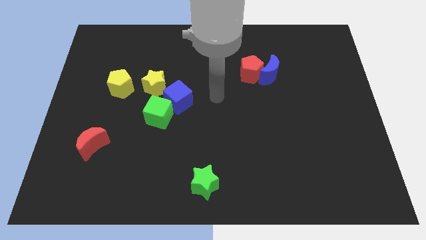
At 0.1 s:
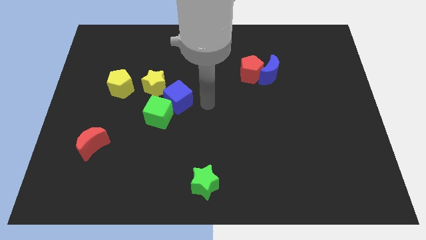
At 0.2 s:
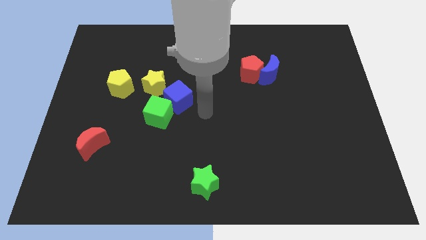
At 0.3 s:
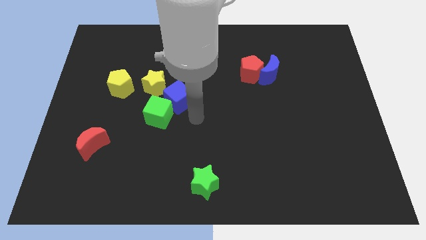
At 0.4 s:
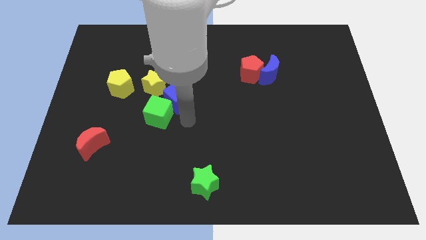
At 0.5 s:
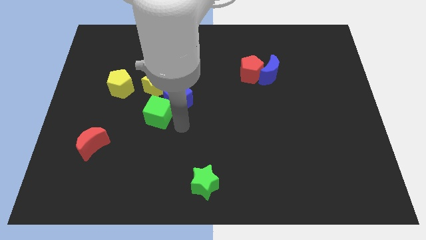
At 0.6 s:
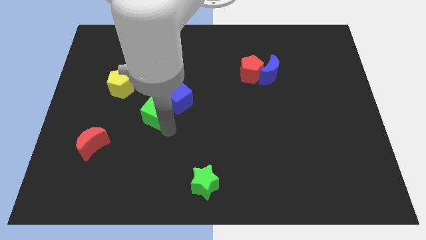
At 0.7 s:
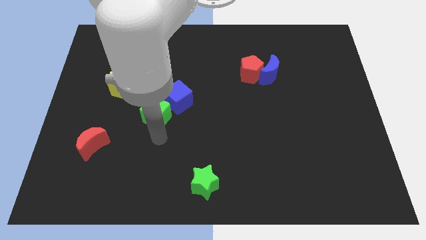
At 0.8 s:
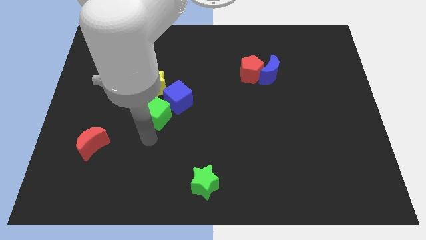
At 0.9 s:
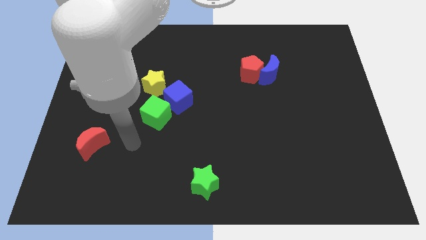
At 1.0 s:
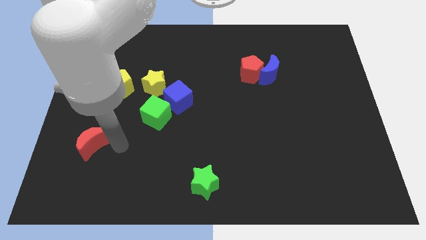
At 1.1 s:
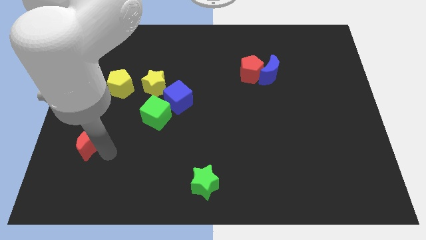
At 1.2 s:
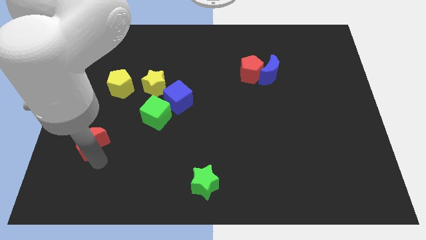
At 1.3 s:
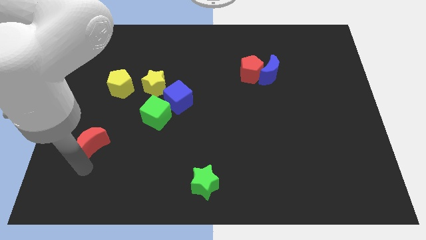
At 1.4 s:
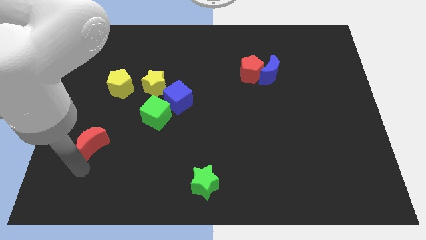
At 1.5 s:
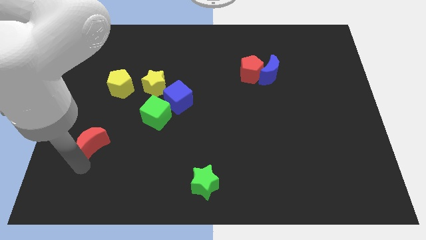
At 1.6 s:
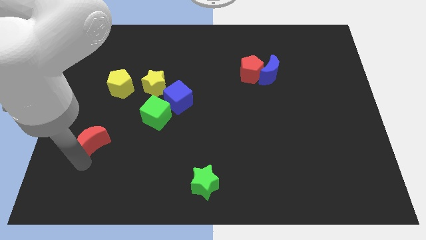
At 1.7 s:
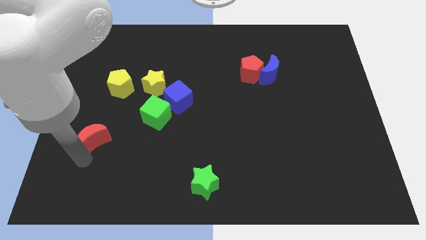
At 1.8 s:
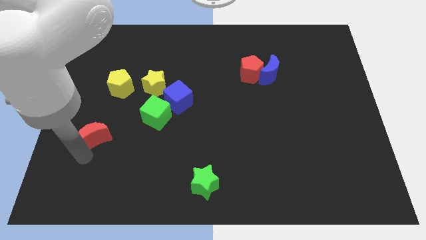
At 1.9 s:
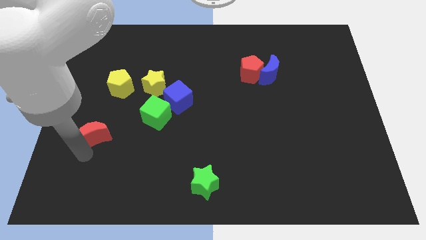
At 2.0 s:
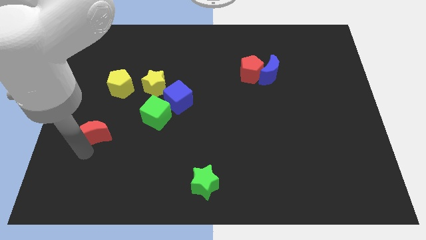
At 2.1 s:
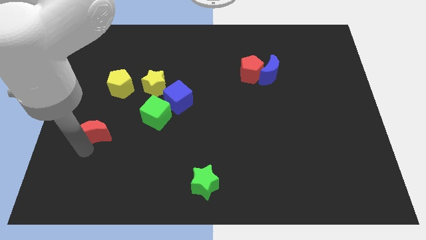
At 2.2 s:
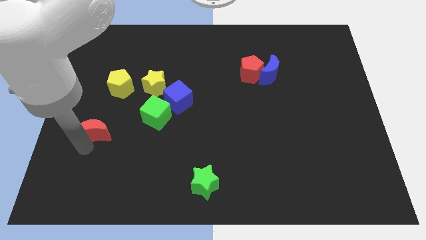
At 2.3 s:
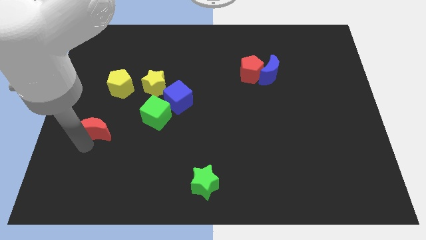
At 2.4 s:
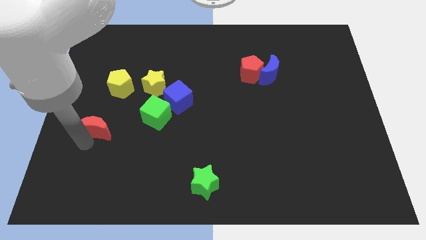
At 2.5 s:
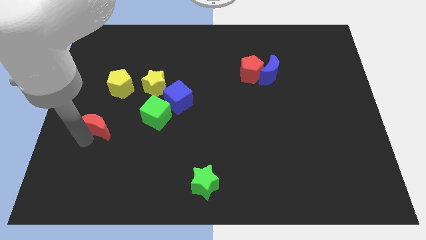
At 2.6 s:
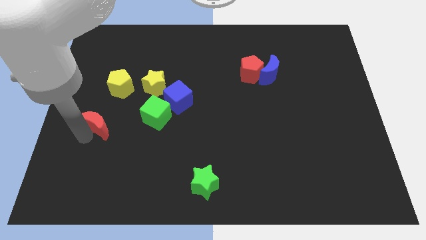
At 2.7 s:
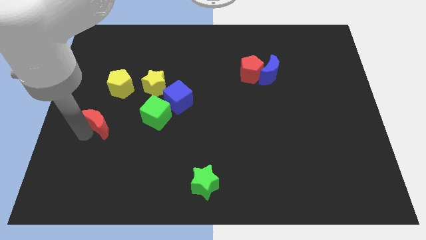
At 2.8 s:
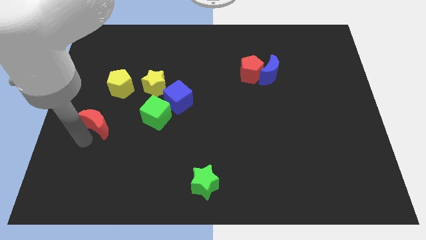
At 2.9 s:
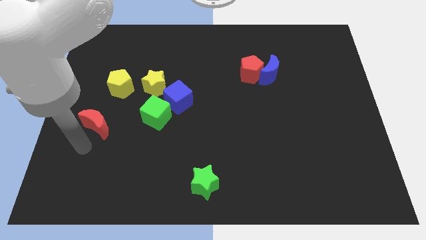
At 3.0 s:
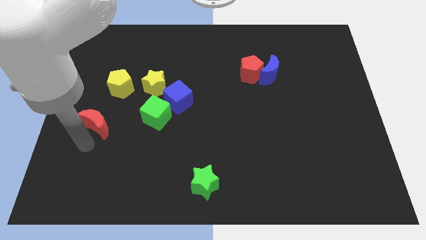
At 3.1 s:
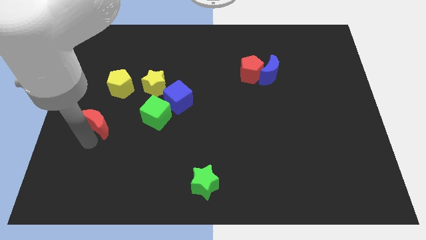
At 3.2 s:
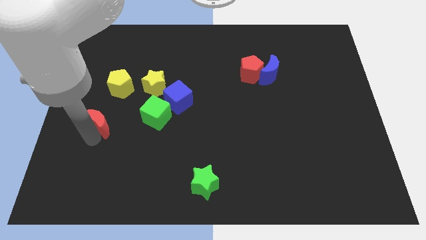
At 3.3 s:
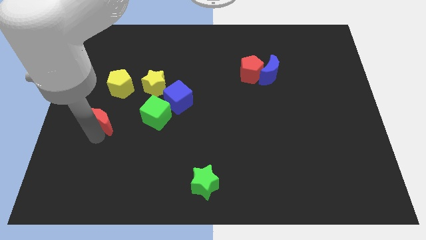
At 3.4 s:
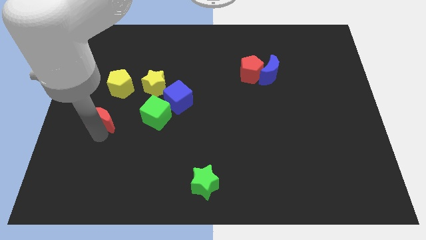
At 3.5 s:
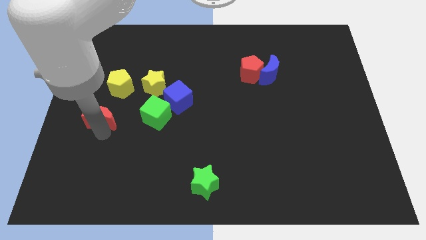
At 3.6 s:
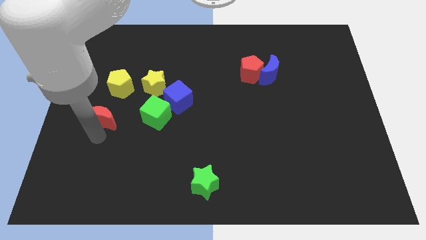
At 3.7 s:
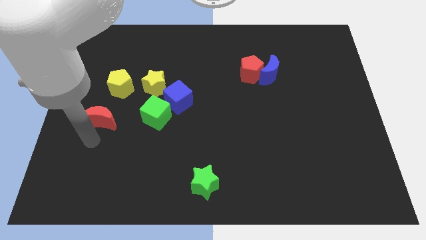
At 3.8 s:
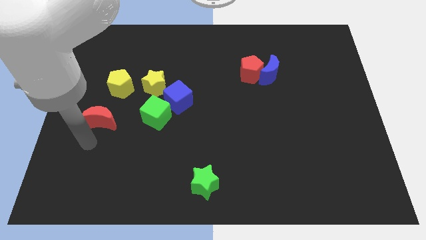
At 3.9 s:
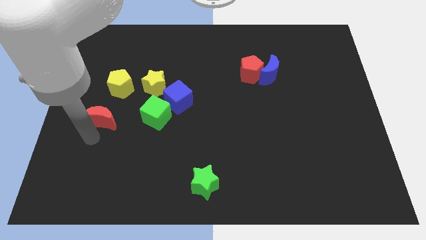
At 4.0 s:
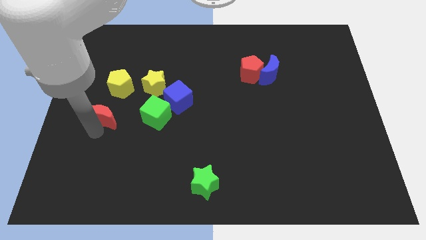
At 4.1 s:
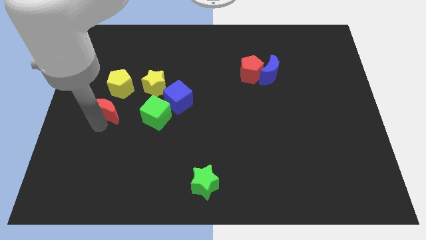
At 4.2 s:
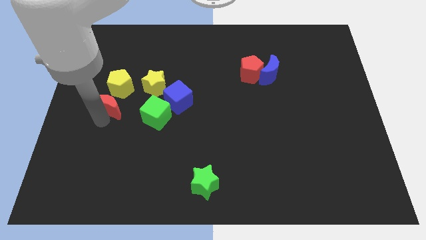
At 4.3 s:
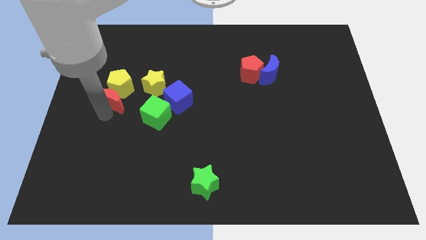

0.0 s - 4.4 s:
put the red moon towards the yellow pentagon

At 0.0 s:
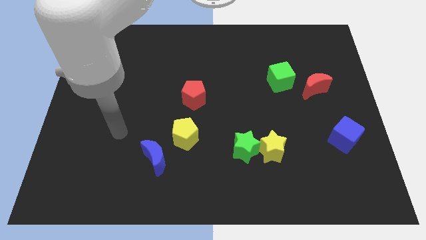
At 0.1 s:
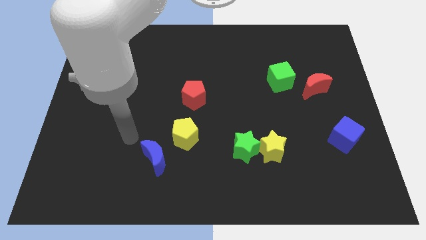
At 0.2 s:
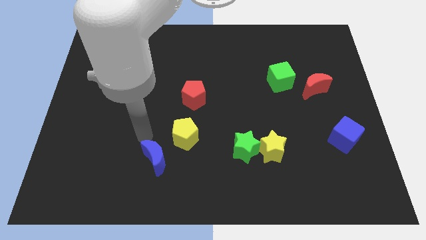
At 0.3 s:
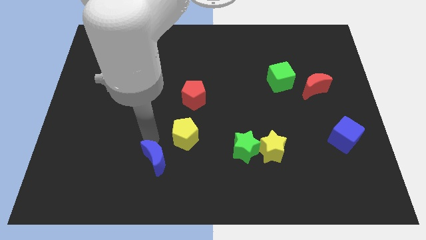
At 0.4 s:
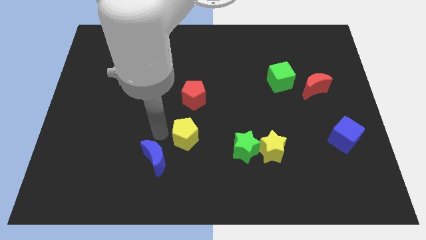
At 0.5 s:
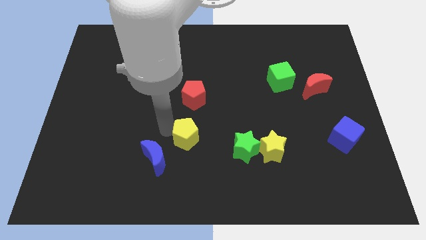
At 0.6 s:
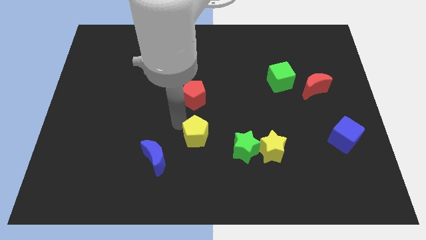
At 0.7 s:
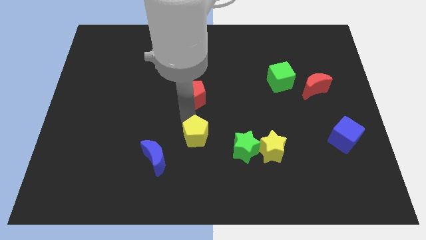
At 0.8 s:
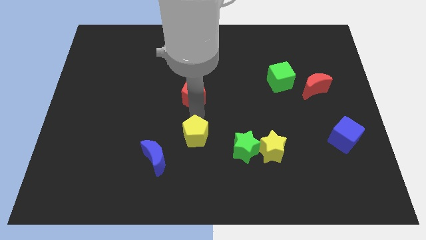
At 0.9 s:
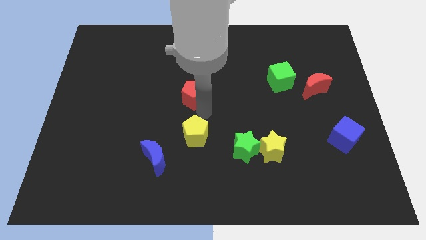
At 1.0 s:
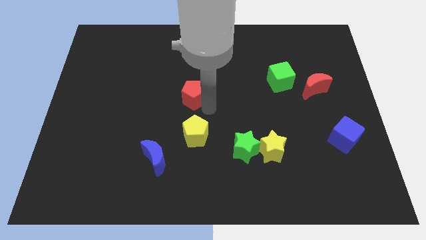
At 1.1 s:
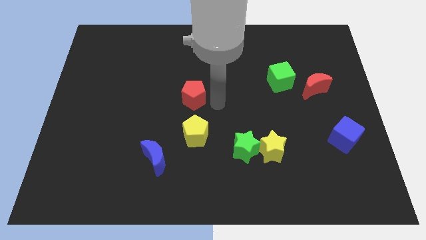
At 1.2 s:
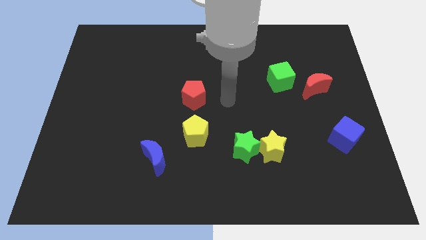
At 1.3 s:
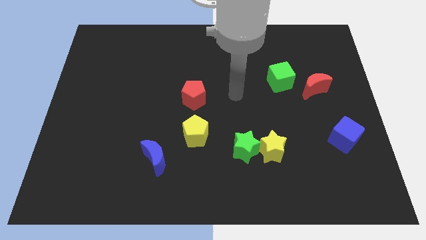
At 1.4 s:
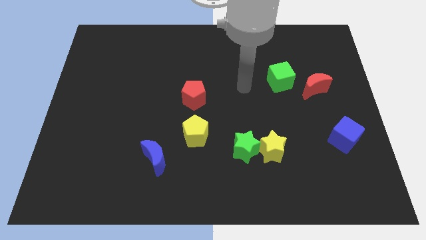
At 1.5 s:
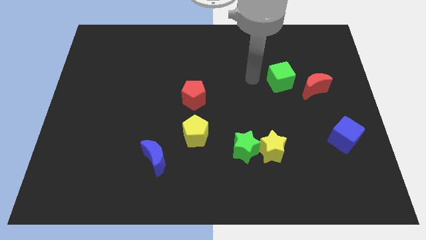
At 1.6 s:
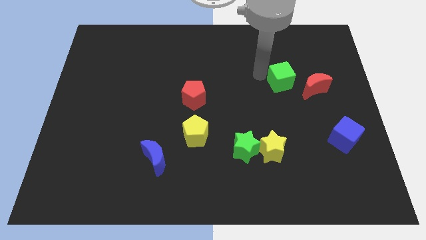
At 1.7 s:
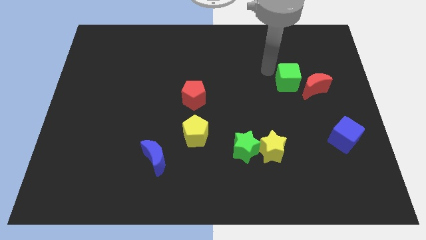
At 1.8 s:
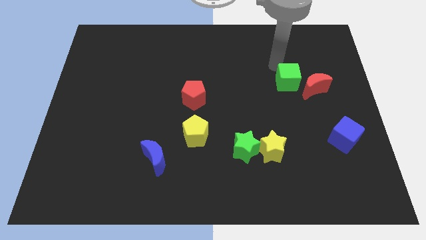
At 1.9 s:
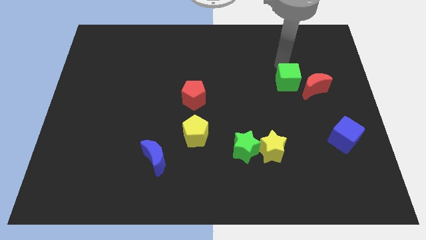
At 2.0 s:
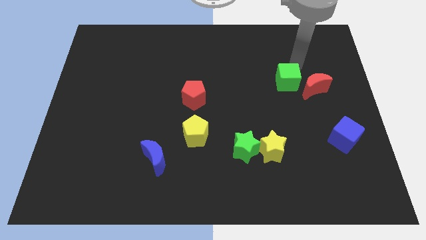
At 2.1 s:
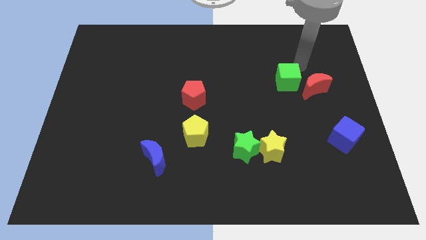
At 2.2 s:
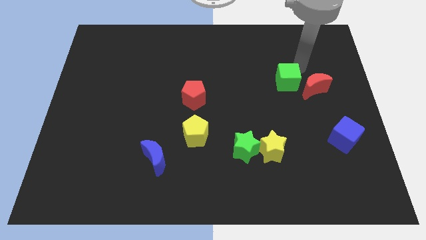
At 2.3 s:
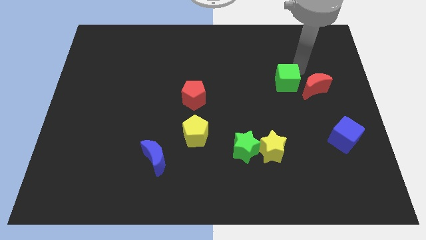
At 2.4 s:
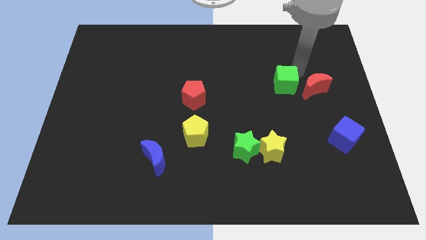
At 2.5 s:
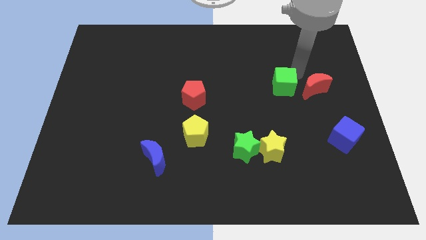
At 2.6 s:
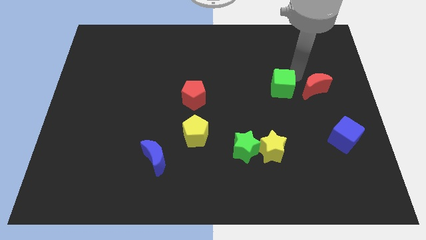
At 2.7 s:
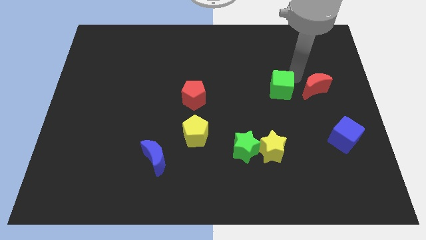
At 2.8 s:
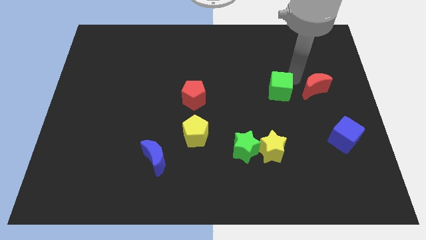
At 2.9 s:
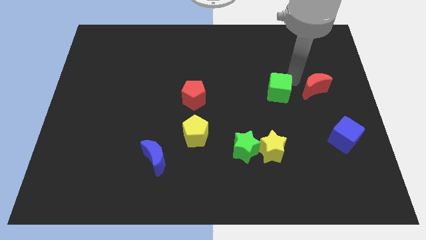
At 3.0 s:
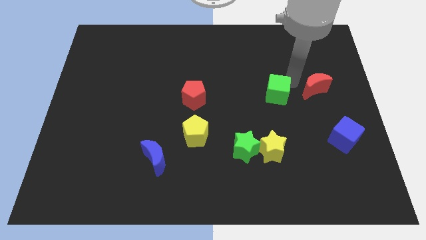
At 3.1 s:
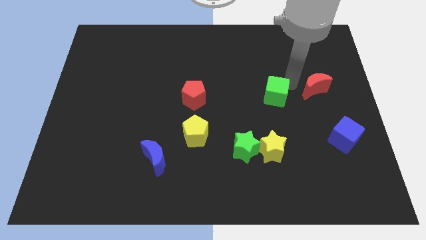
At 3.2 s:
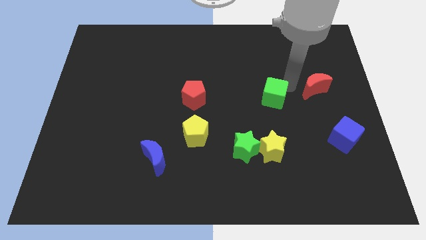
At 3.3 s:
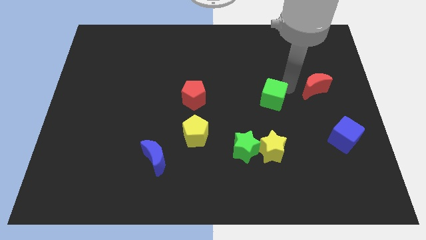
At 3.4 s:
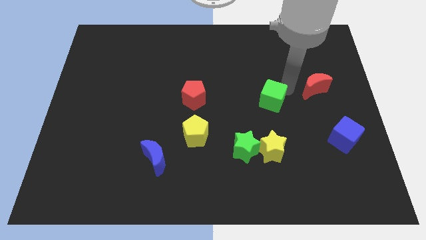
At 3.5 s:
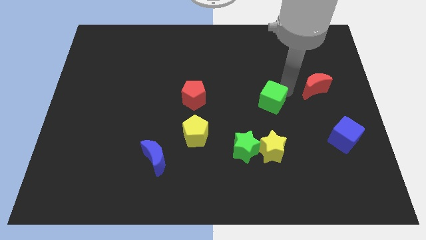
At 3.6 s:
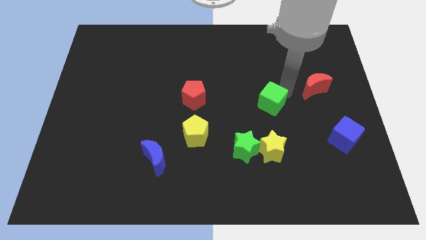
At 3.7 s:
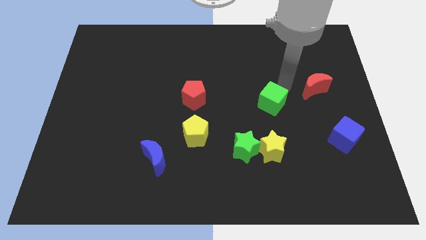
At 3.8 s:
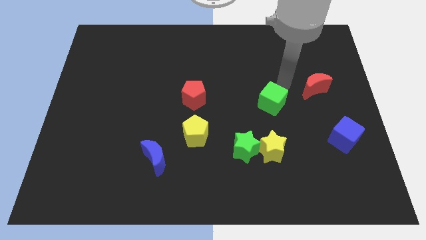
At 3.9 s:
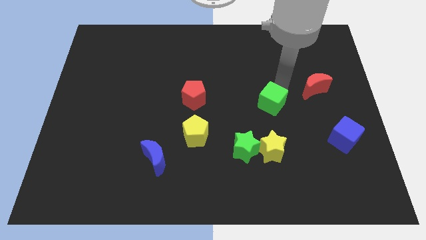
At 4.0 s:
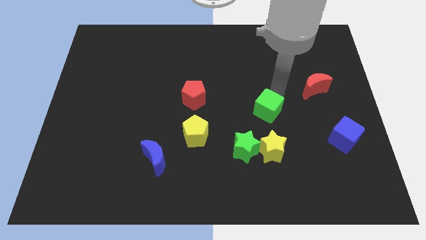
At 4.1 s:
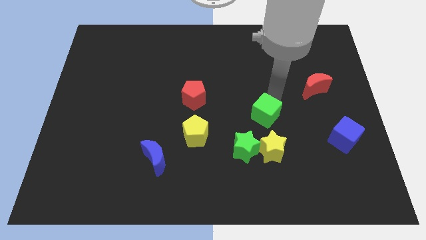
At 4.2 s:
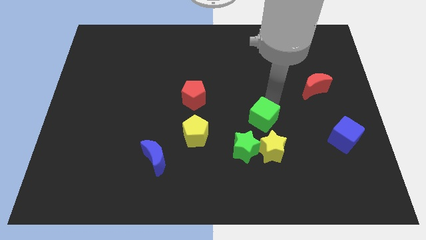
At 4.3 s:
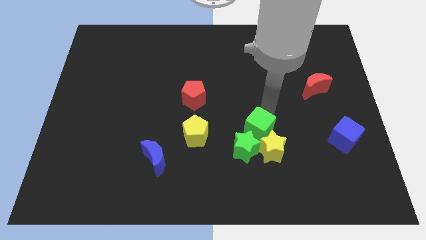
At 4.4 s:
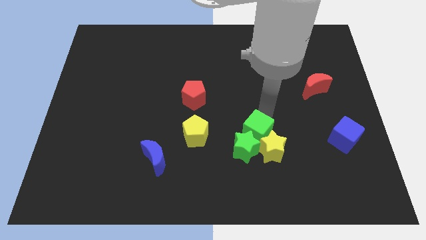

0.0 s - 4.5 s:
push the green cube close to the green star
